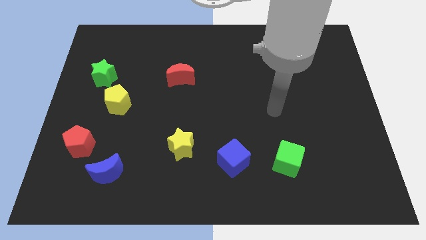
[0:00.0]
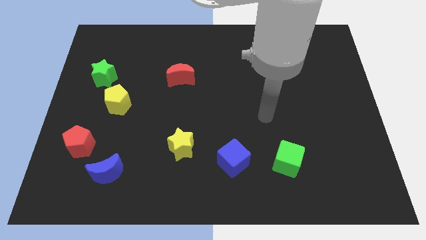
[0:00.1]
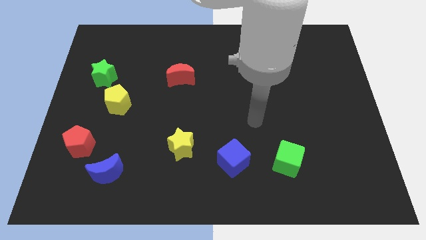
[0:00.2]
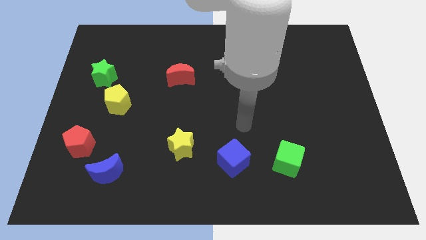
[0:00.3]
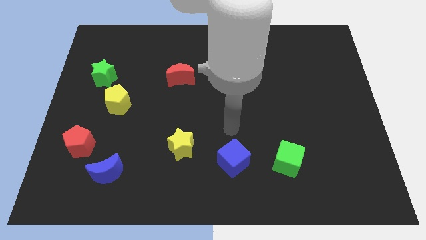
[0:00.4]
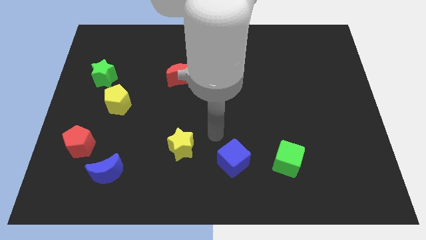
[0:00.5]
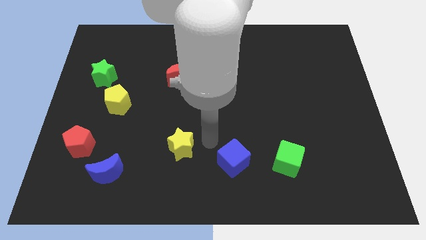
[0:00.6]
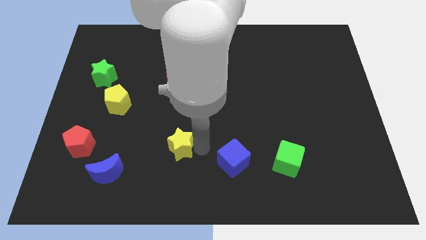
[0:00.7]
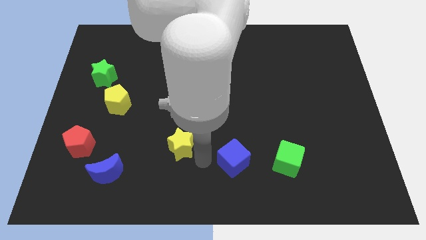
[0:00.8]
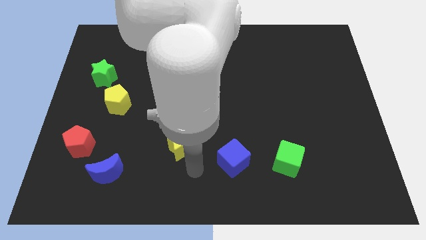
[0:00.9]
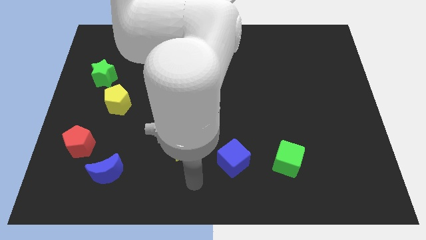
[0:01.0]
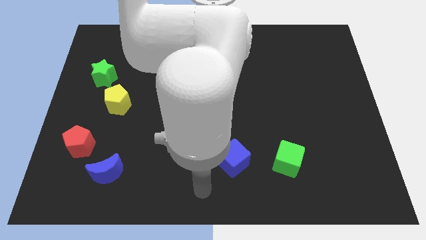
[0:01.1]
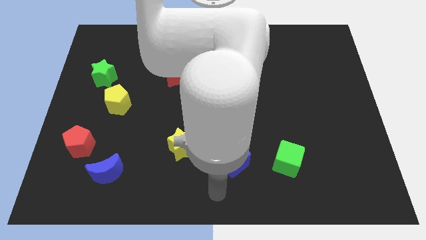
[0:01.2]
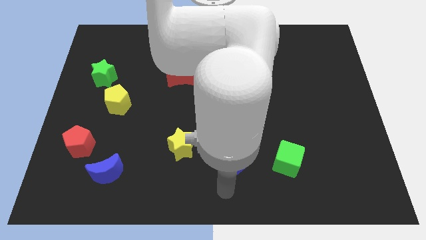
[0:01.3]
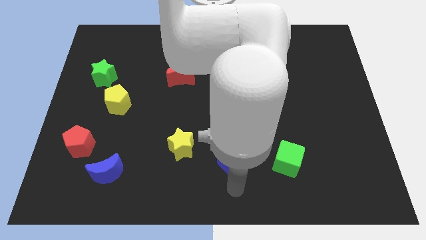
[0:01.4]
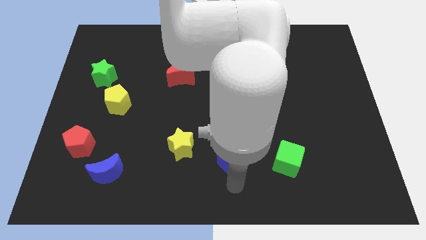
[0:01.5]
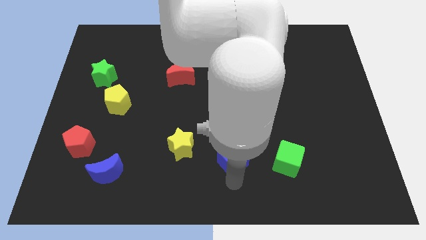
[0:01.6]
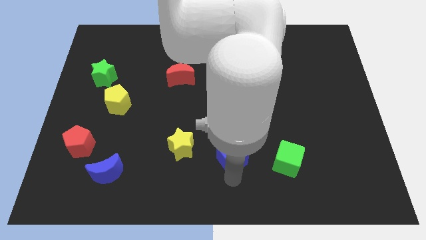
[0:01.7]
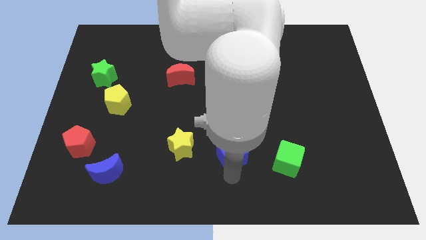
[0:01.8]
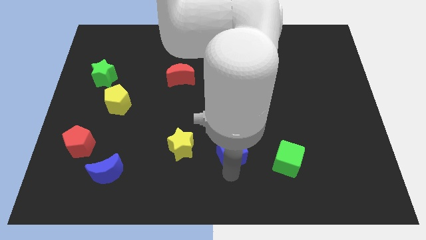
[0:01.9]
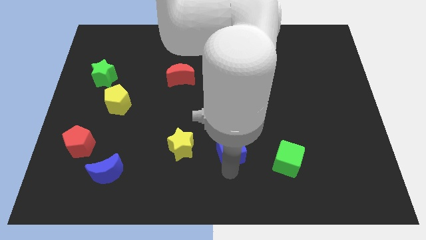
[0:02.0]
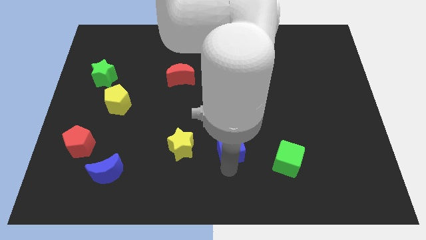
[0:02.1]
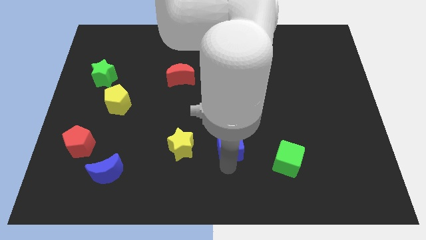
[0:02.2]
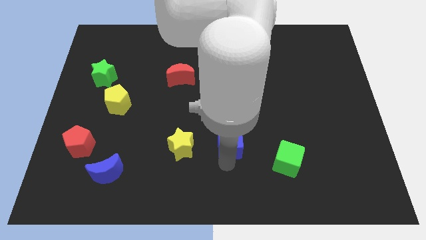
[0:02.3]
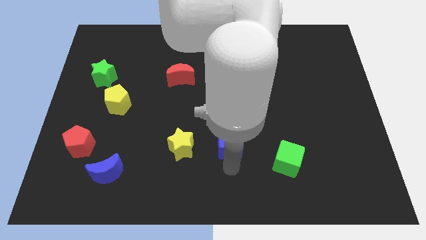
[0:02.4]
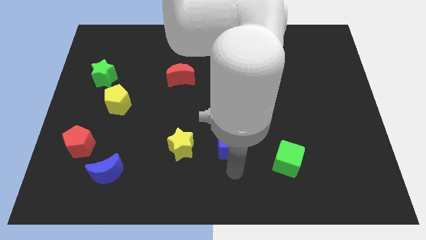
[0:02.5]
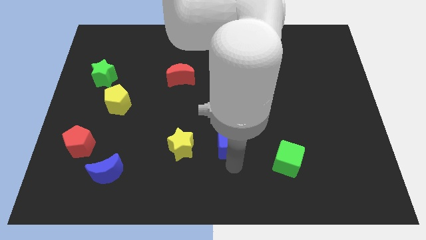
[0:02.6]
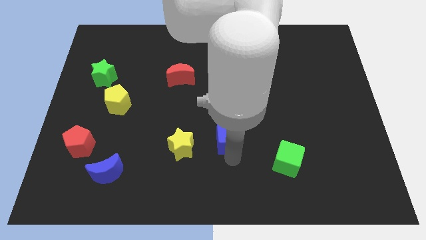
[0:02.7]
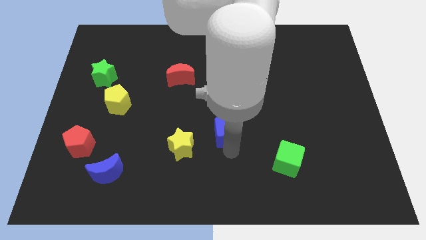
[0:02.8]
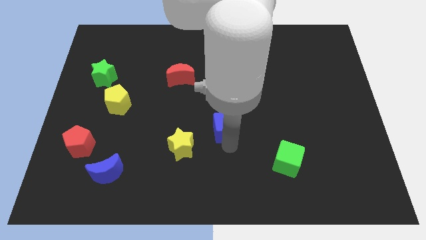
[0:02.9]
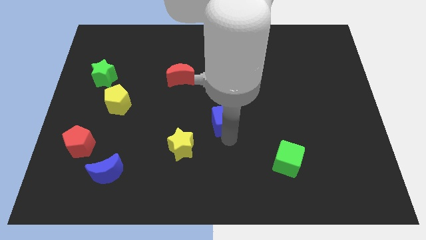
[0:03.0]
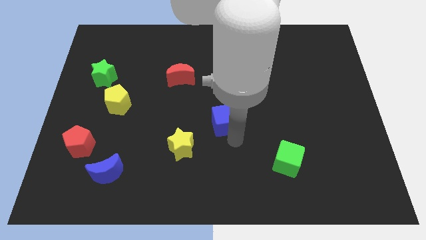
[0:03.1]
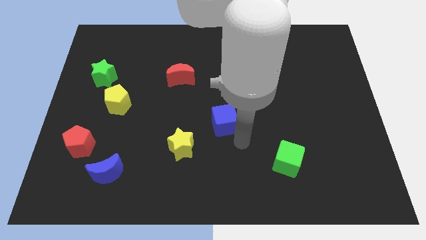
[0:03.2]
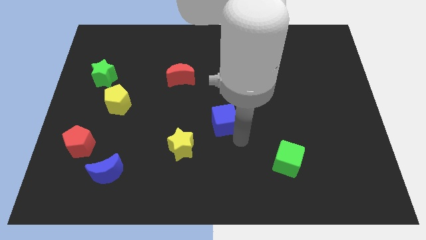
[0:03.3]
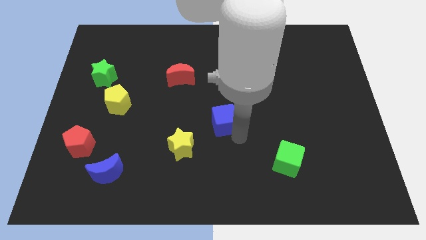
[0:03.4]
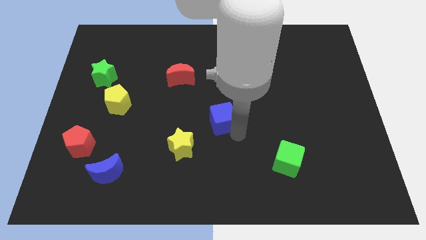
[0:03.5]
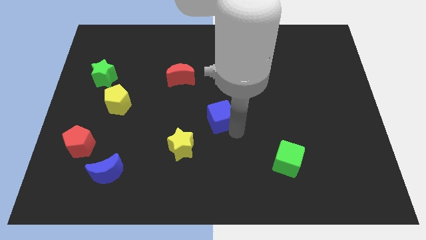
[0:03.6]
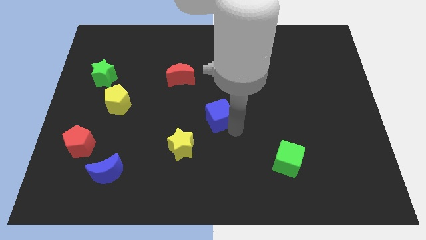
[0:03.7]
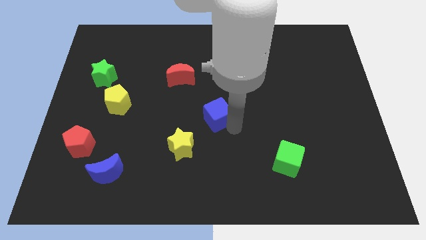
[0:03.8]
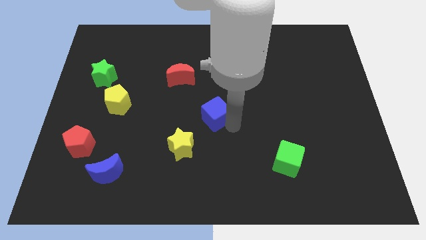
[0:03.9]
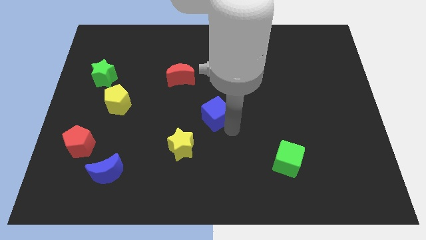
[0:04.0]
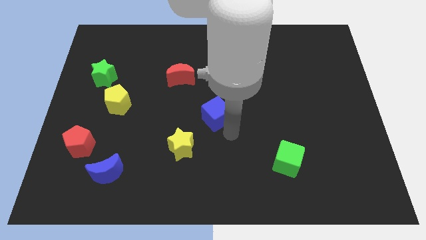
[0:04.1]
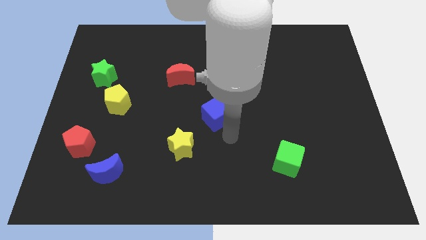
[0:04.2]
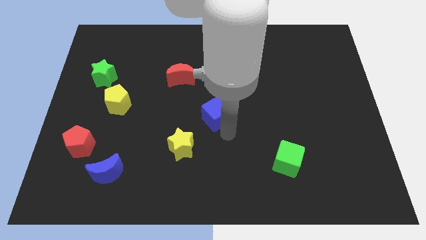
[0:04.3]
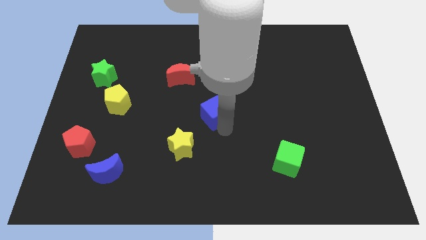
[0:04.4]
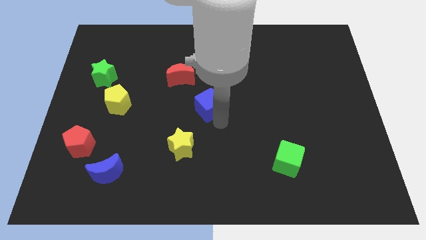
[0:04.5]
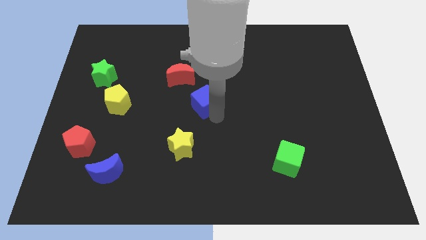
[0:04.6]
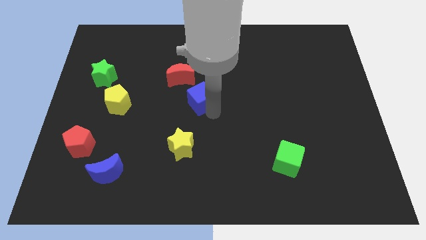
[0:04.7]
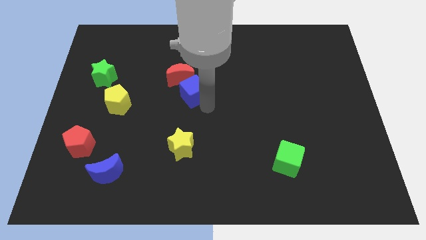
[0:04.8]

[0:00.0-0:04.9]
move the blue cube next to the red moon

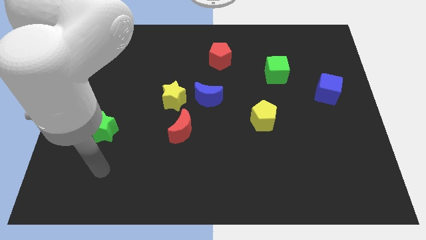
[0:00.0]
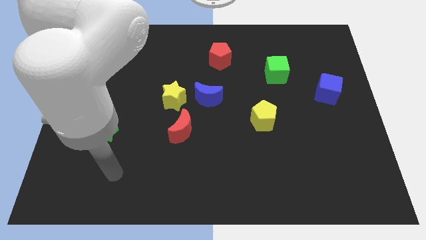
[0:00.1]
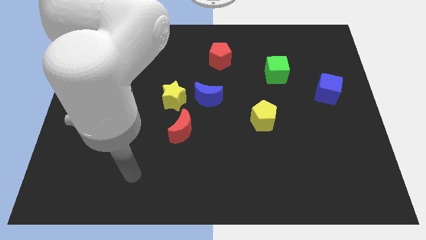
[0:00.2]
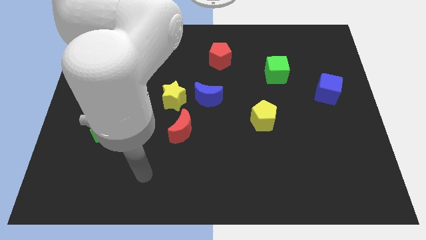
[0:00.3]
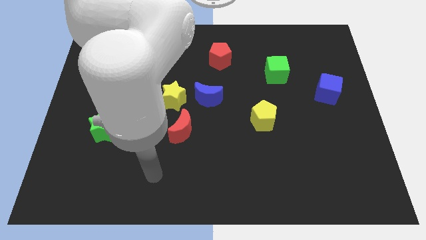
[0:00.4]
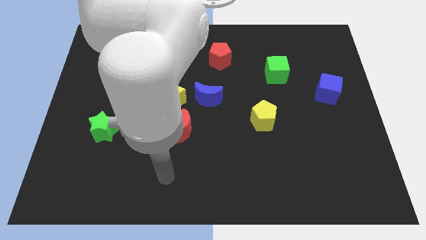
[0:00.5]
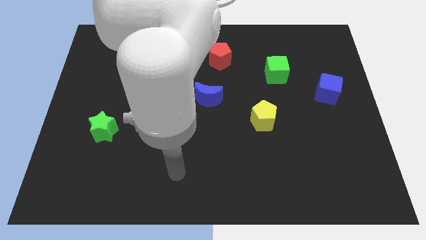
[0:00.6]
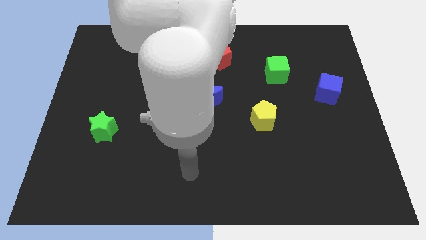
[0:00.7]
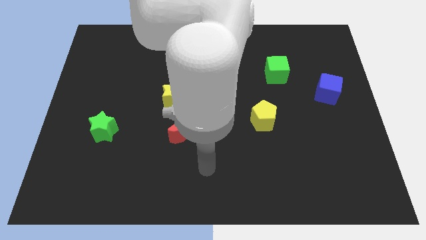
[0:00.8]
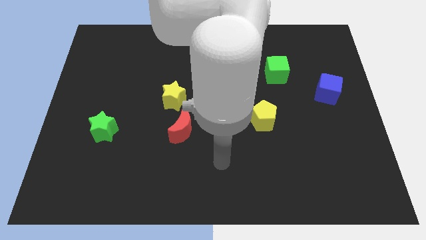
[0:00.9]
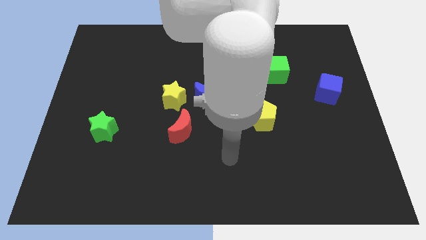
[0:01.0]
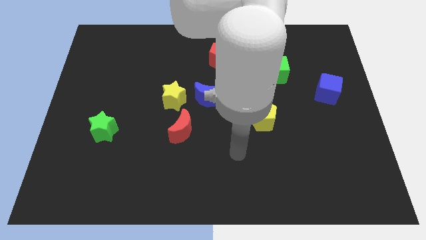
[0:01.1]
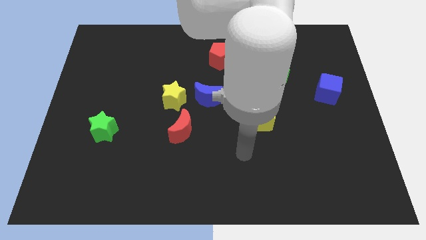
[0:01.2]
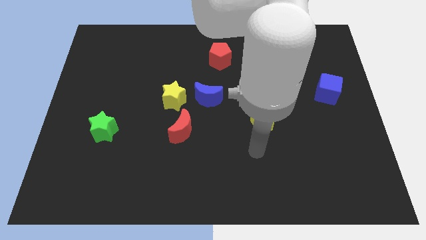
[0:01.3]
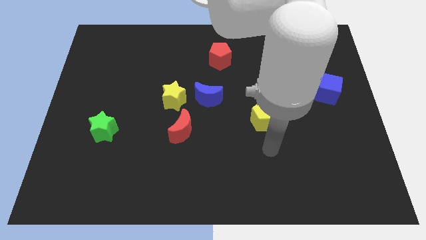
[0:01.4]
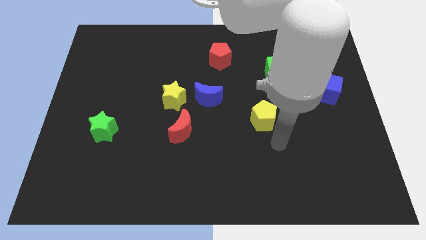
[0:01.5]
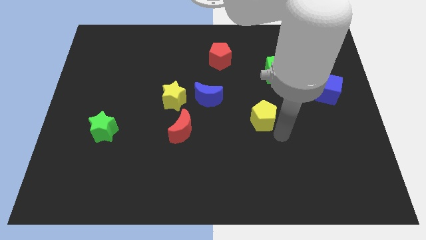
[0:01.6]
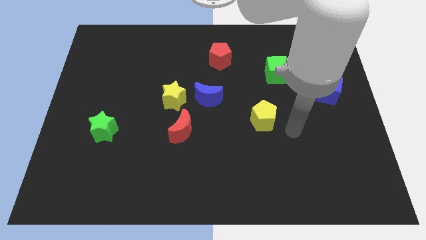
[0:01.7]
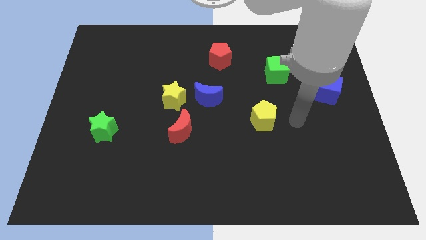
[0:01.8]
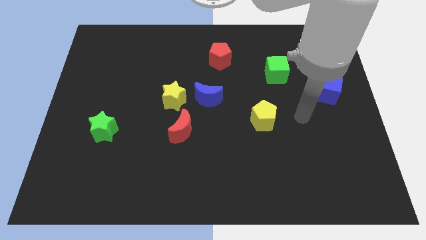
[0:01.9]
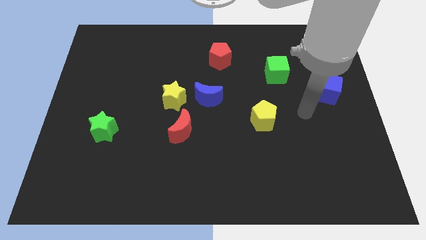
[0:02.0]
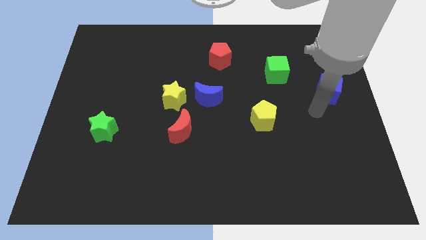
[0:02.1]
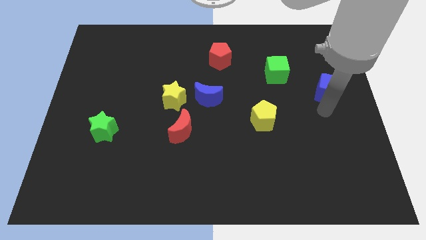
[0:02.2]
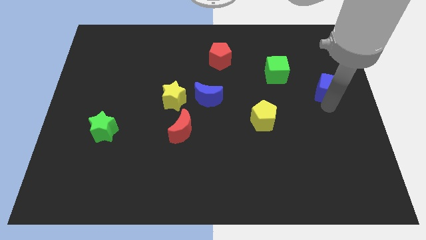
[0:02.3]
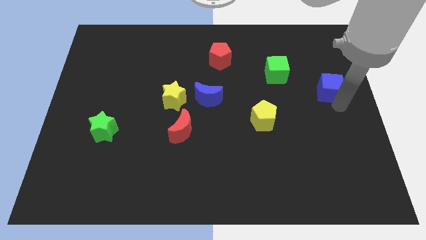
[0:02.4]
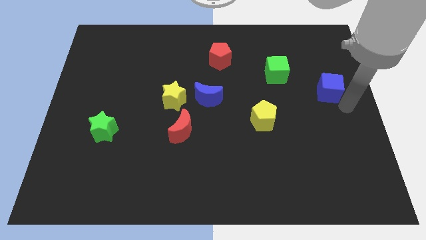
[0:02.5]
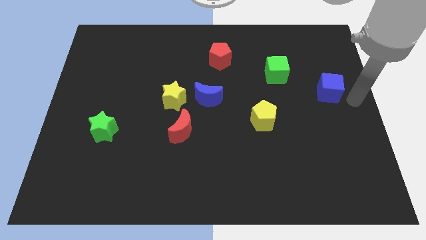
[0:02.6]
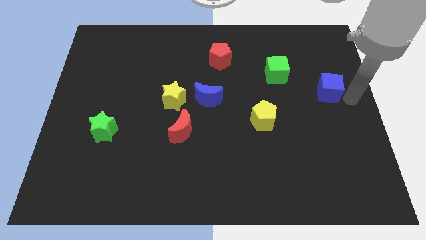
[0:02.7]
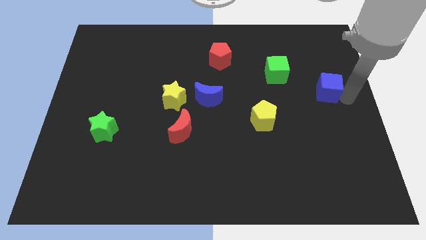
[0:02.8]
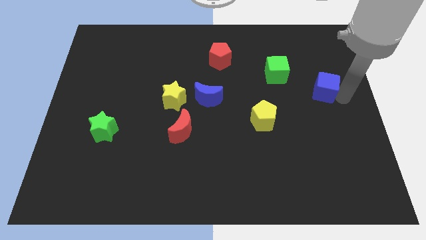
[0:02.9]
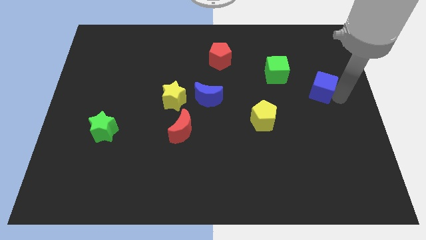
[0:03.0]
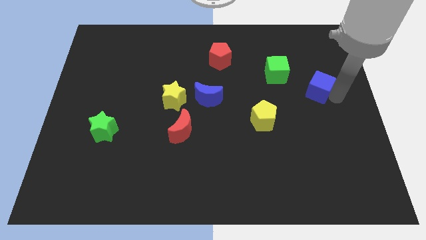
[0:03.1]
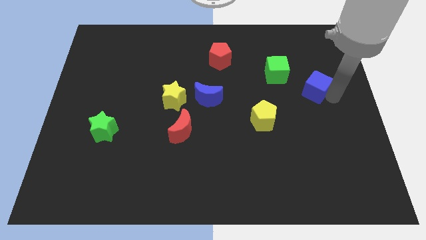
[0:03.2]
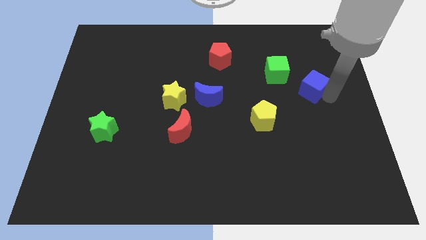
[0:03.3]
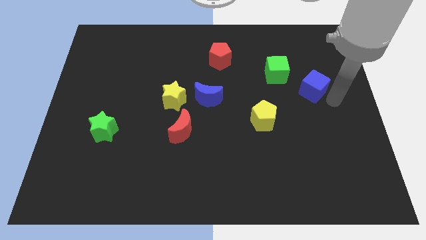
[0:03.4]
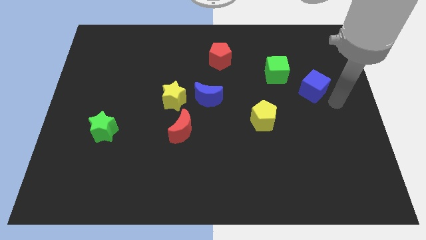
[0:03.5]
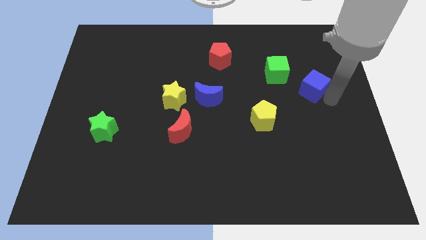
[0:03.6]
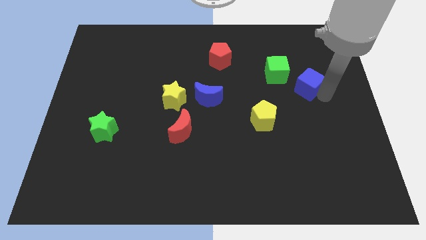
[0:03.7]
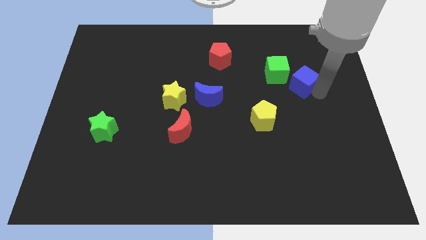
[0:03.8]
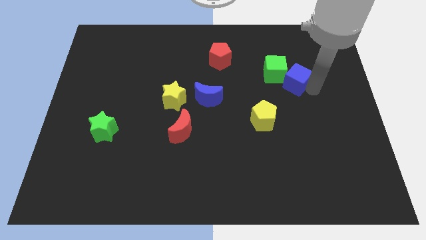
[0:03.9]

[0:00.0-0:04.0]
put the blue cube to the green cube
